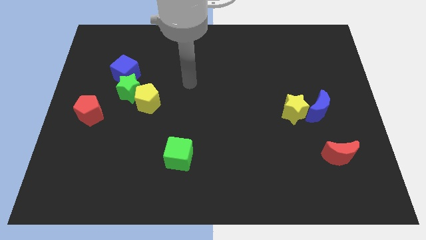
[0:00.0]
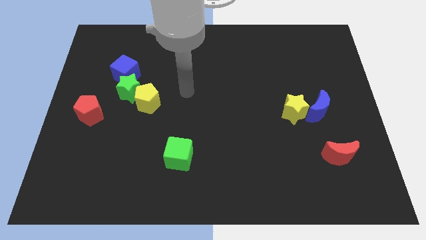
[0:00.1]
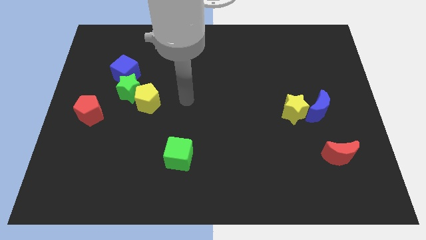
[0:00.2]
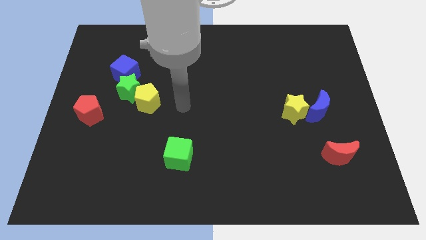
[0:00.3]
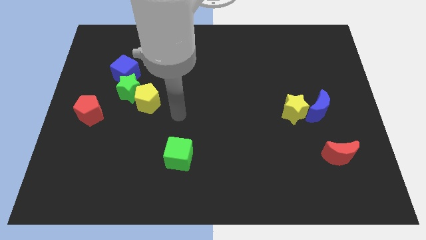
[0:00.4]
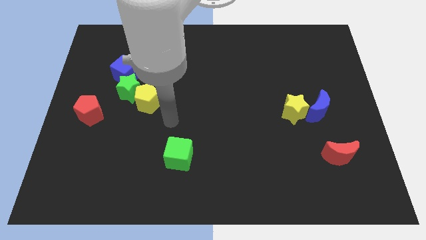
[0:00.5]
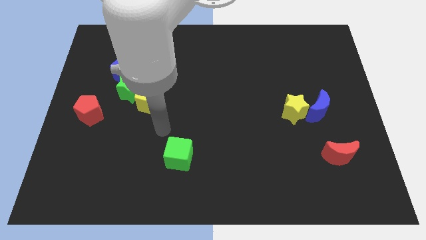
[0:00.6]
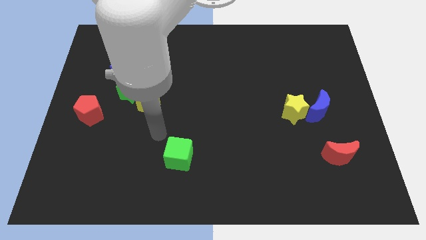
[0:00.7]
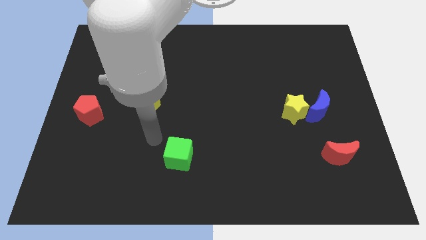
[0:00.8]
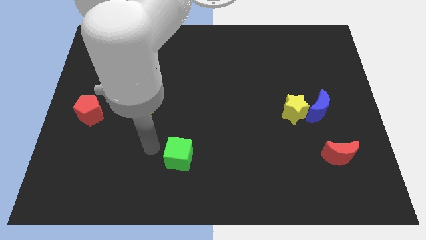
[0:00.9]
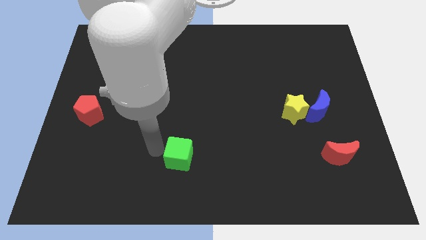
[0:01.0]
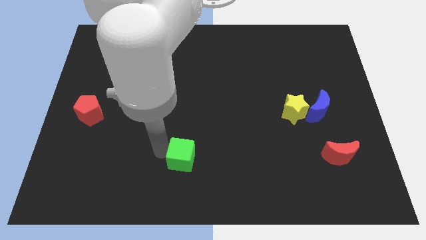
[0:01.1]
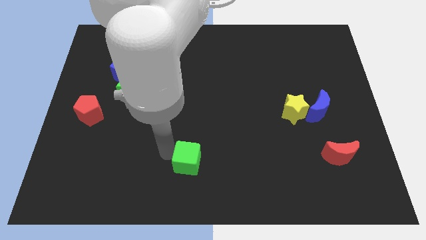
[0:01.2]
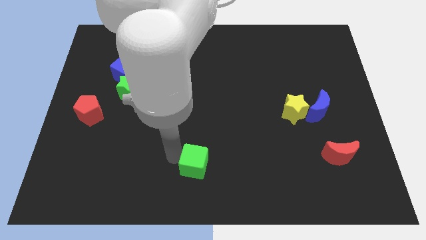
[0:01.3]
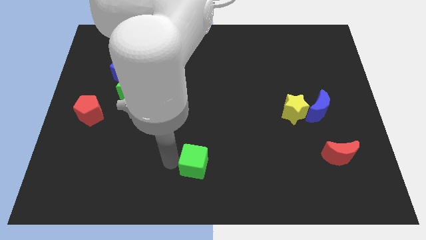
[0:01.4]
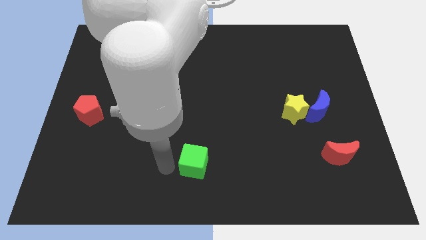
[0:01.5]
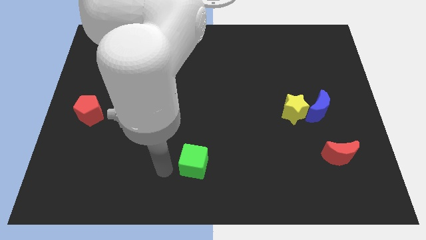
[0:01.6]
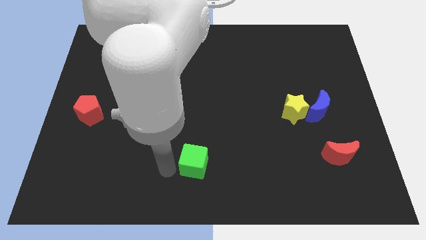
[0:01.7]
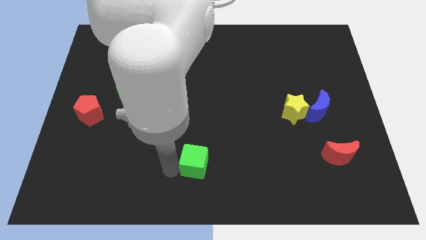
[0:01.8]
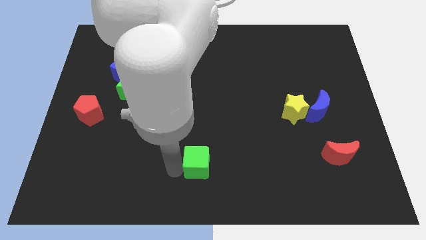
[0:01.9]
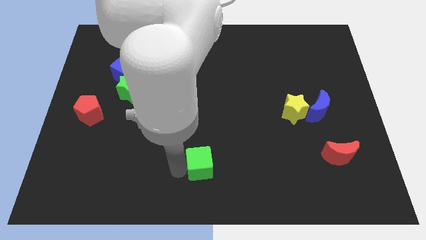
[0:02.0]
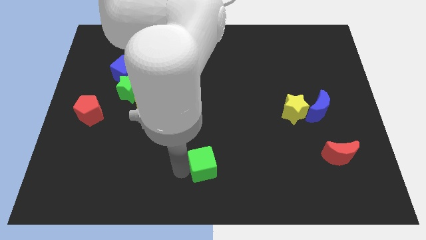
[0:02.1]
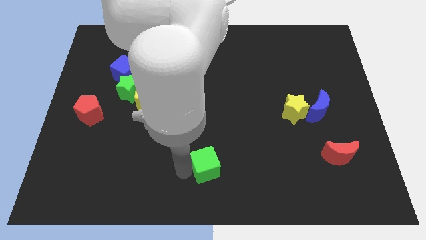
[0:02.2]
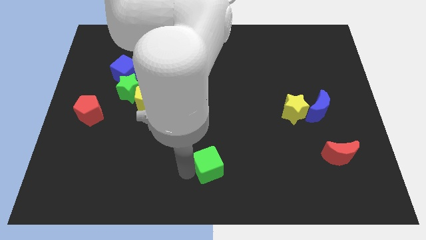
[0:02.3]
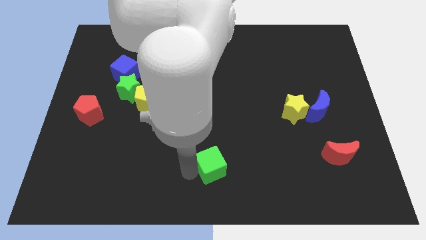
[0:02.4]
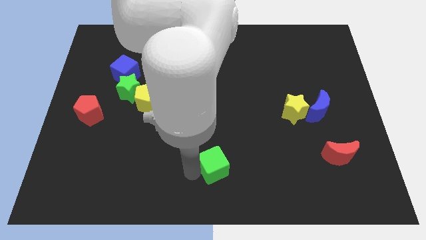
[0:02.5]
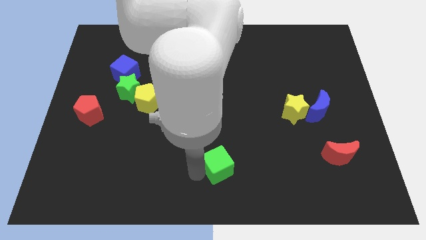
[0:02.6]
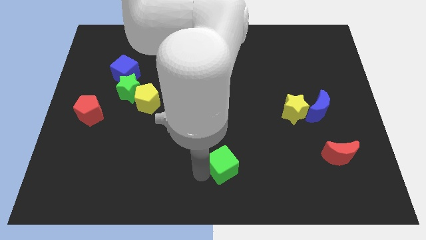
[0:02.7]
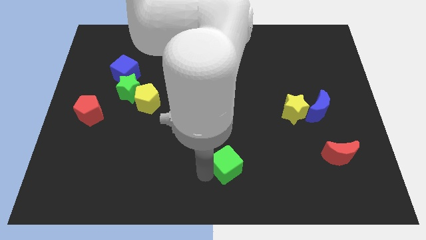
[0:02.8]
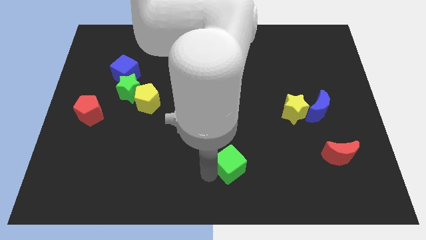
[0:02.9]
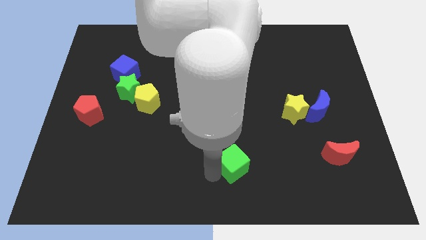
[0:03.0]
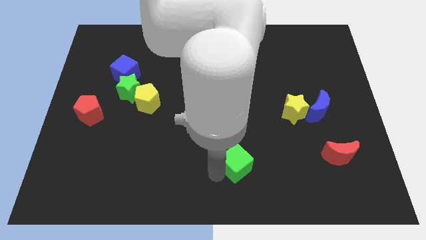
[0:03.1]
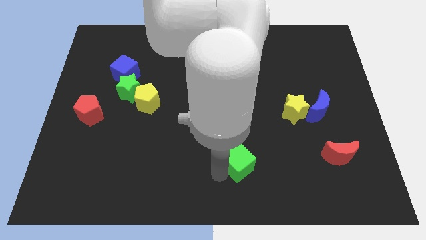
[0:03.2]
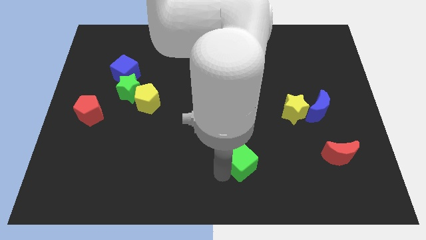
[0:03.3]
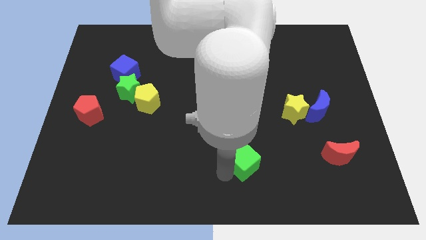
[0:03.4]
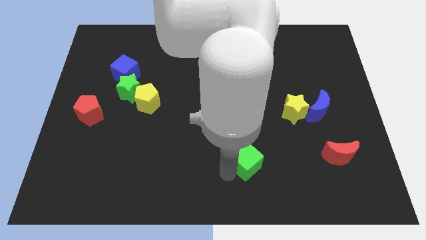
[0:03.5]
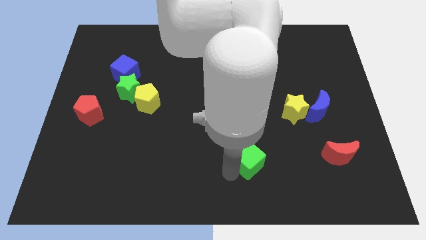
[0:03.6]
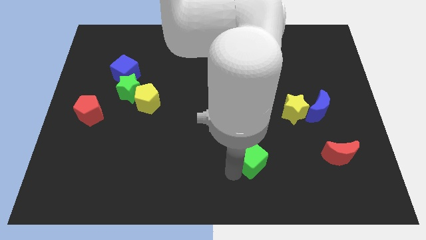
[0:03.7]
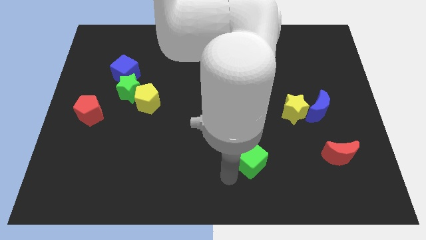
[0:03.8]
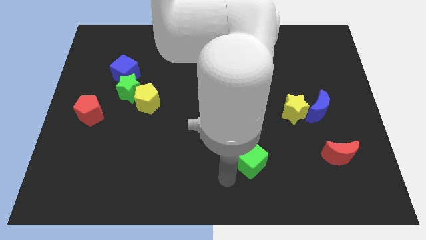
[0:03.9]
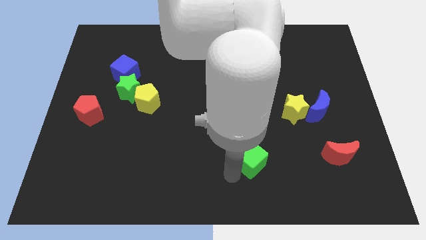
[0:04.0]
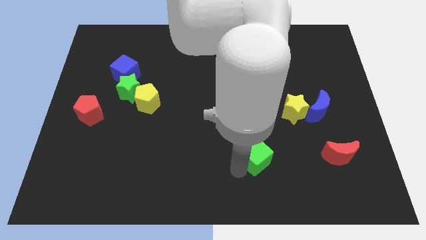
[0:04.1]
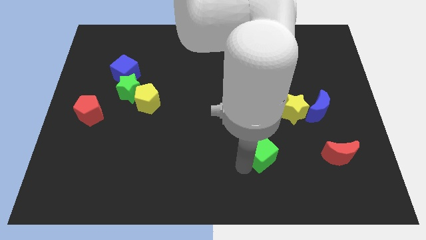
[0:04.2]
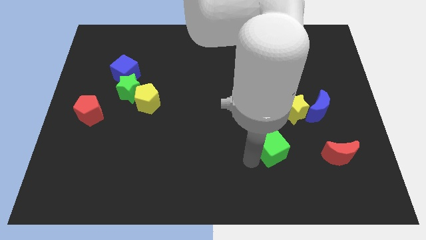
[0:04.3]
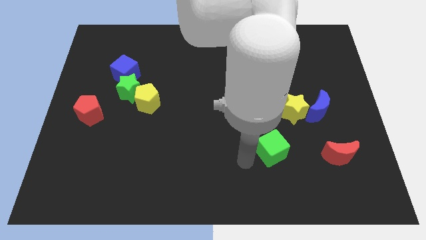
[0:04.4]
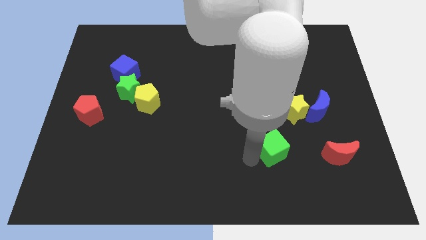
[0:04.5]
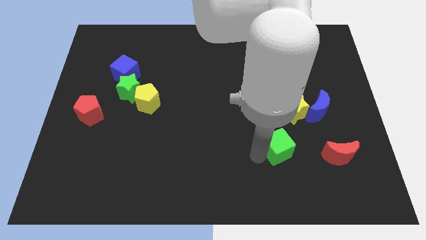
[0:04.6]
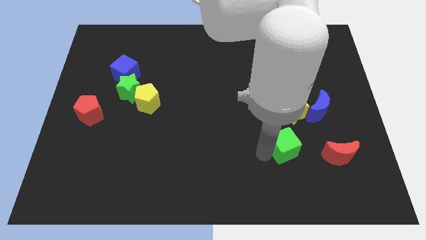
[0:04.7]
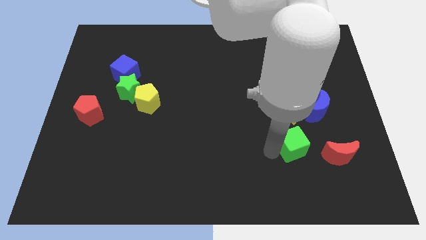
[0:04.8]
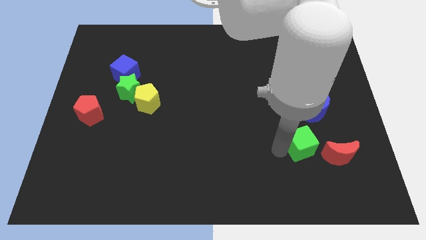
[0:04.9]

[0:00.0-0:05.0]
put the green cube diagonally up and to the left of the red moon

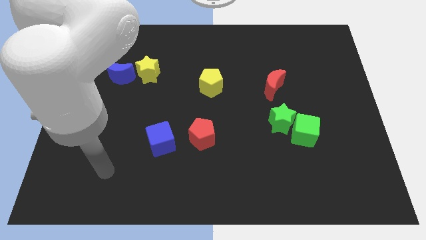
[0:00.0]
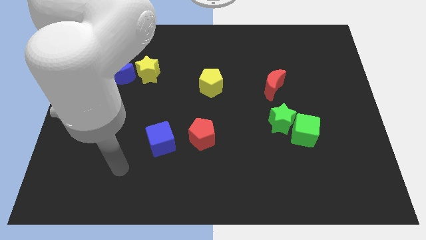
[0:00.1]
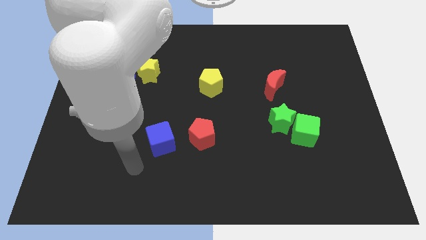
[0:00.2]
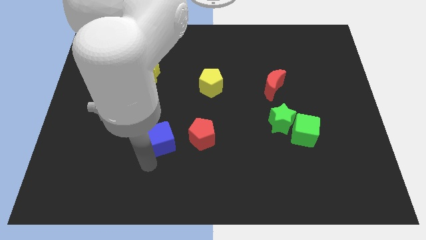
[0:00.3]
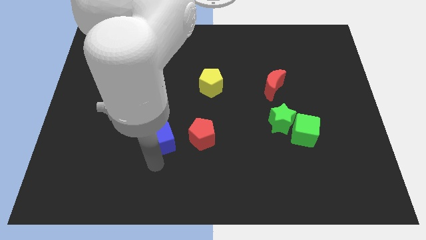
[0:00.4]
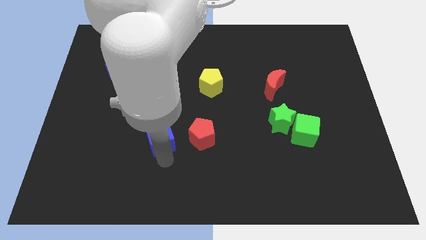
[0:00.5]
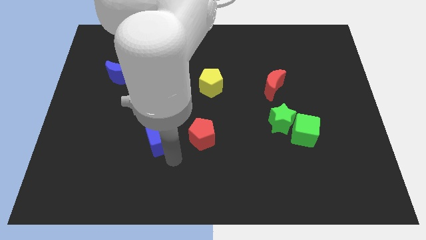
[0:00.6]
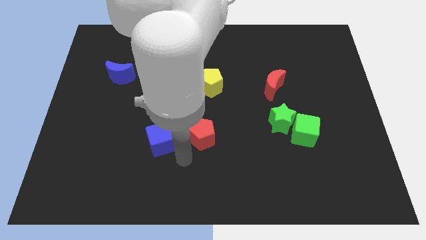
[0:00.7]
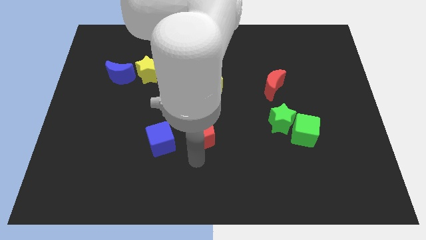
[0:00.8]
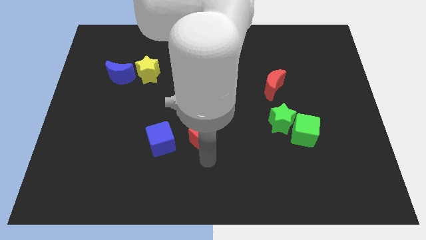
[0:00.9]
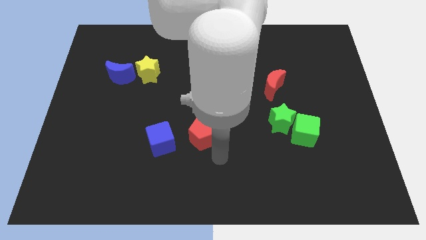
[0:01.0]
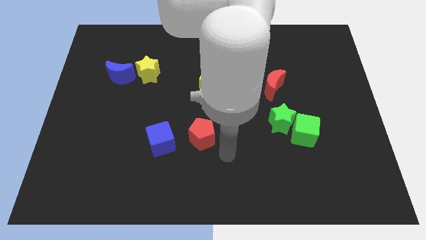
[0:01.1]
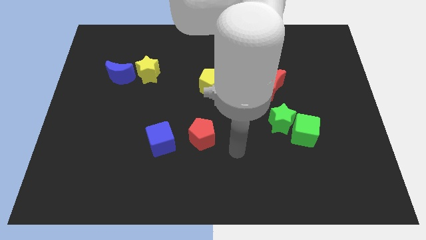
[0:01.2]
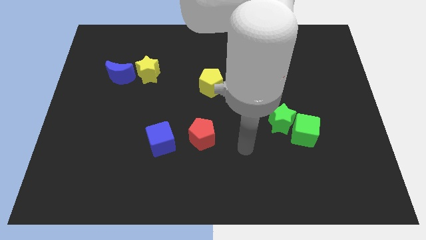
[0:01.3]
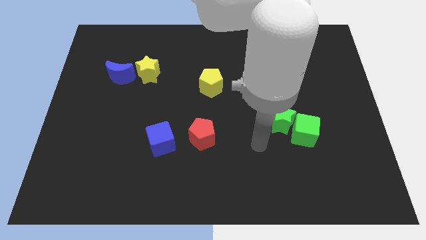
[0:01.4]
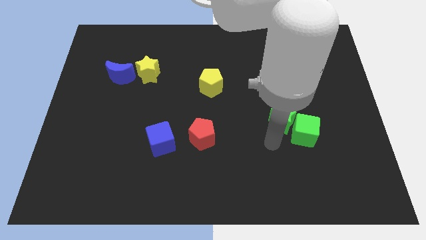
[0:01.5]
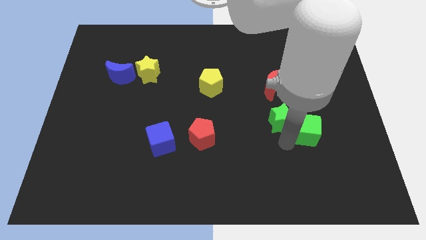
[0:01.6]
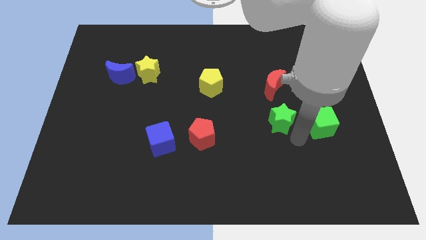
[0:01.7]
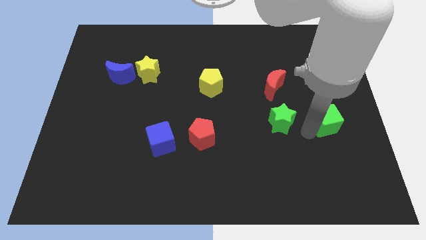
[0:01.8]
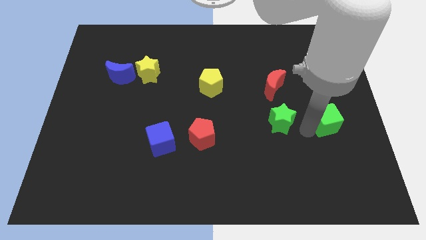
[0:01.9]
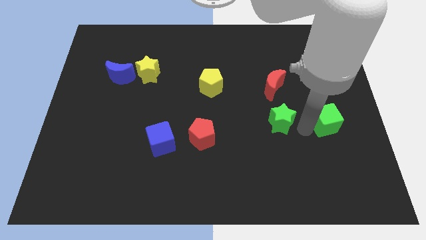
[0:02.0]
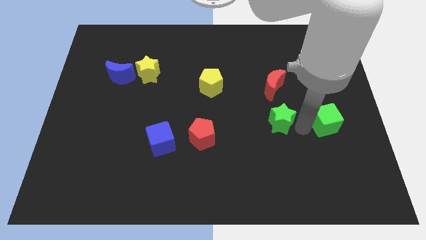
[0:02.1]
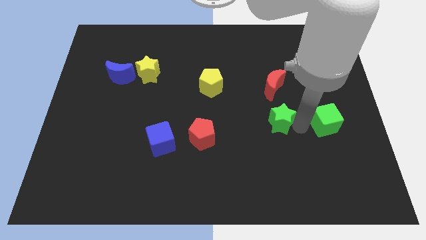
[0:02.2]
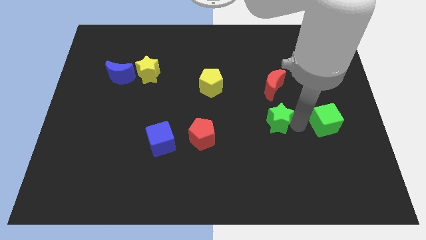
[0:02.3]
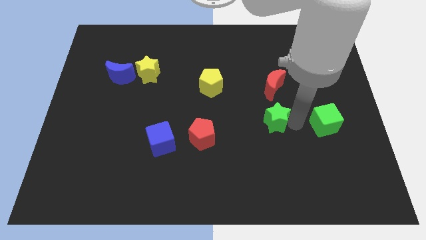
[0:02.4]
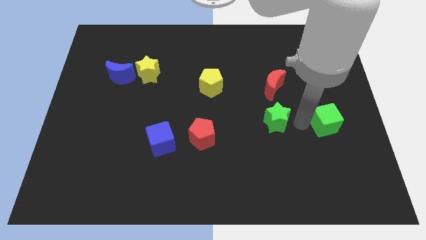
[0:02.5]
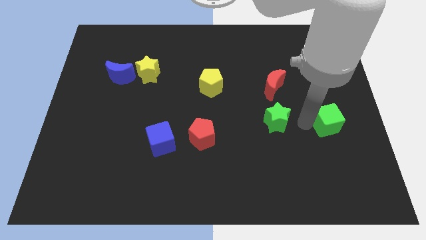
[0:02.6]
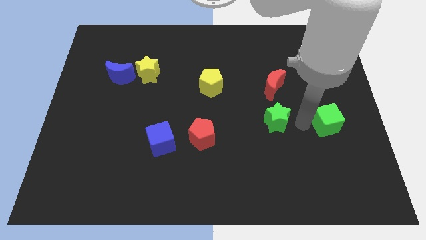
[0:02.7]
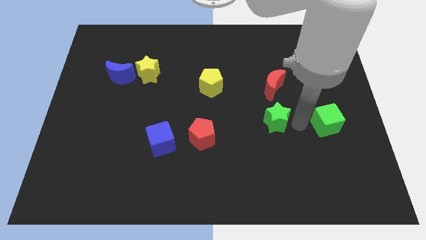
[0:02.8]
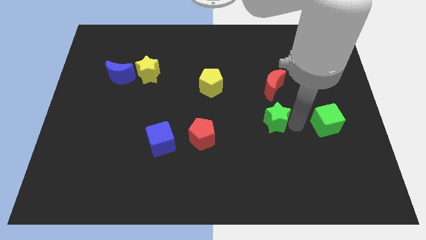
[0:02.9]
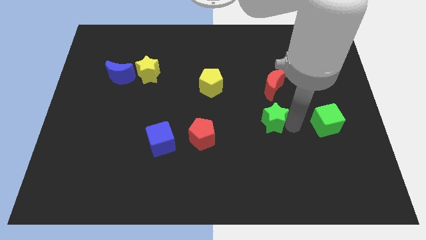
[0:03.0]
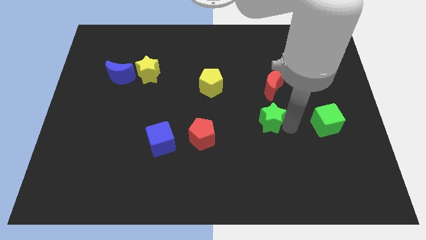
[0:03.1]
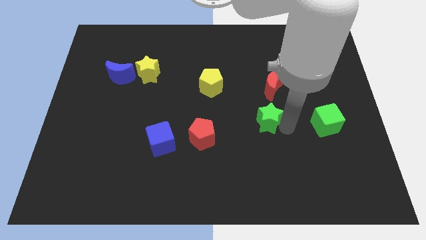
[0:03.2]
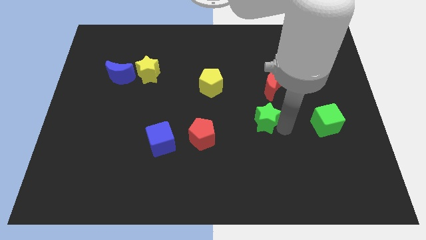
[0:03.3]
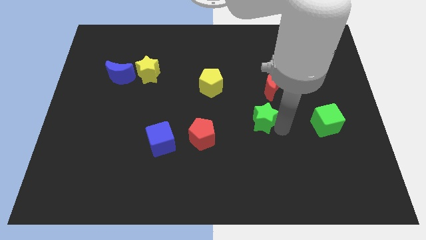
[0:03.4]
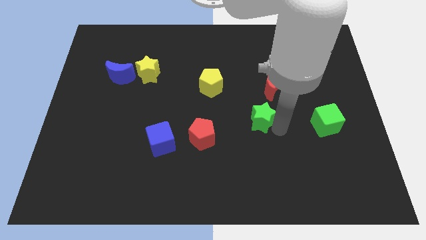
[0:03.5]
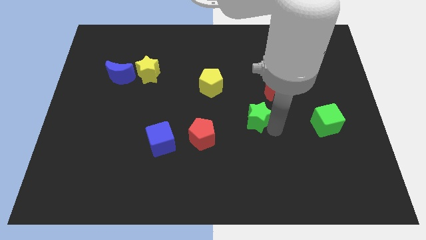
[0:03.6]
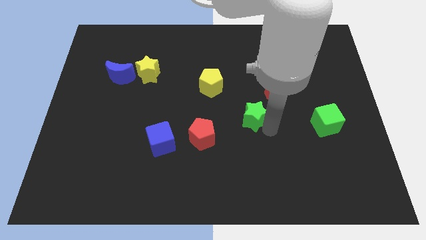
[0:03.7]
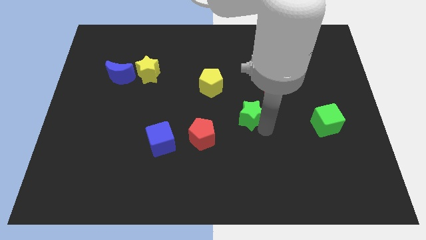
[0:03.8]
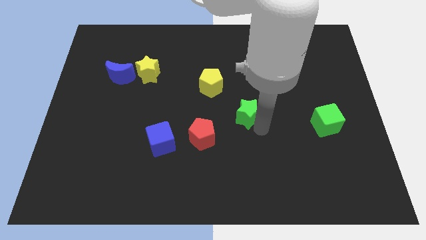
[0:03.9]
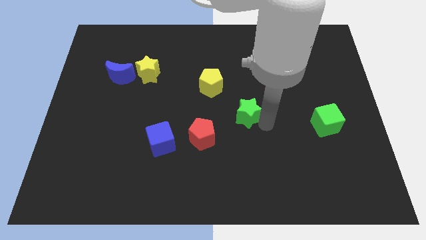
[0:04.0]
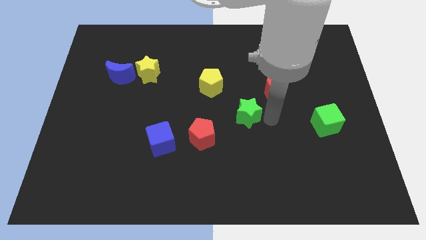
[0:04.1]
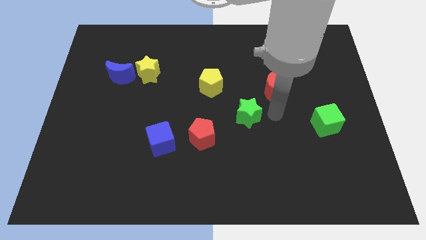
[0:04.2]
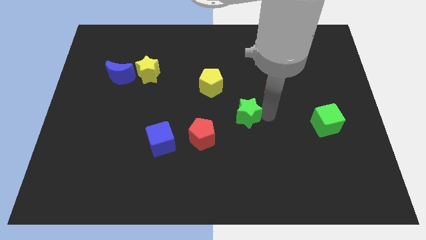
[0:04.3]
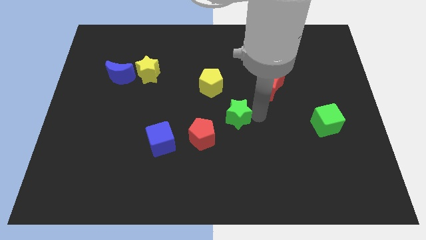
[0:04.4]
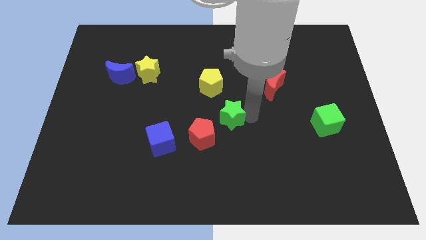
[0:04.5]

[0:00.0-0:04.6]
push the green star to the bottom of the yellow pentagon
